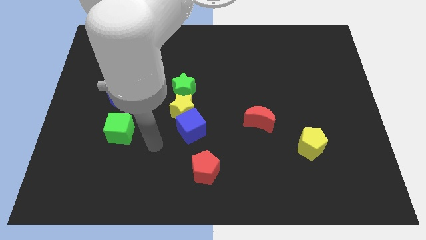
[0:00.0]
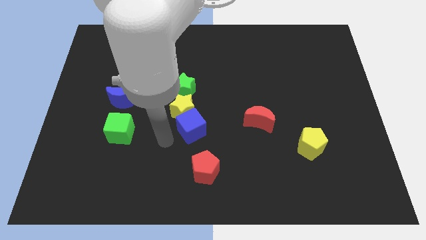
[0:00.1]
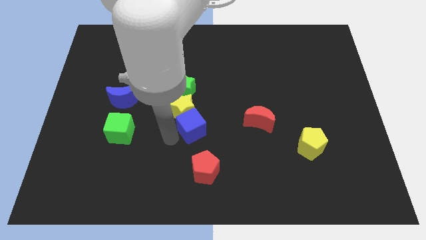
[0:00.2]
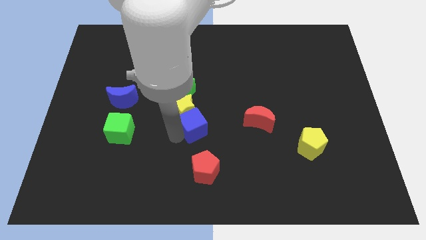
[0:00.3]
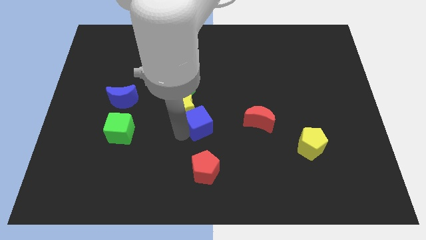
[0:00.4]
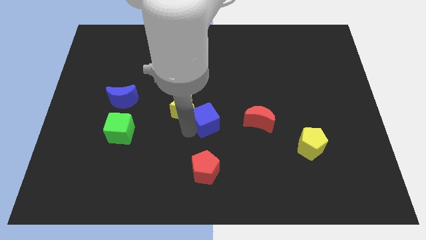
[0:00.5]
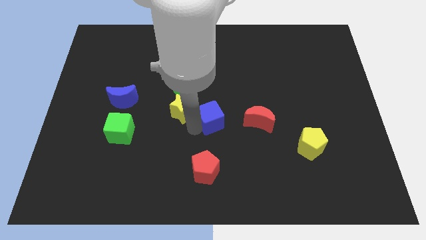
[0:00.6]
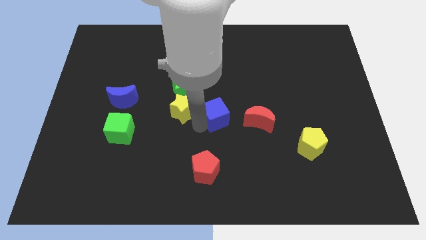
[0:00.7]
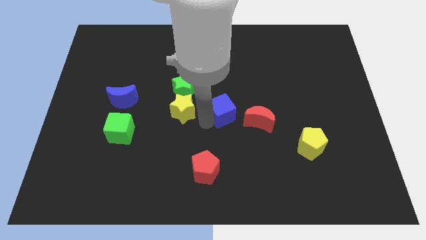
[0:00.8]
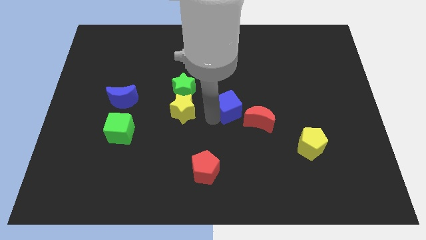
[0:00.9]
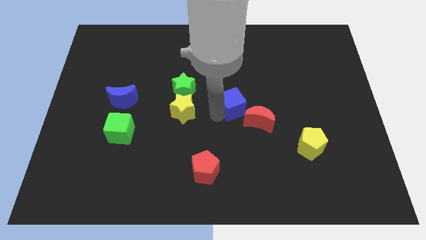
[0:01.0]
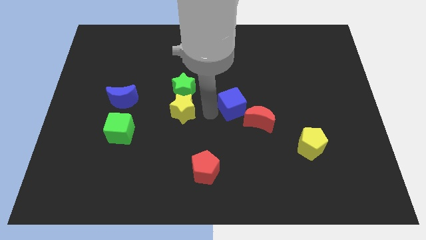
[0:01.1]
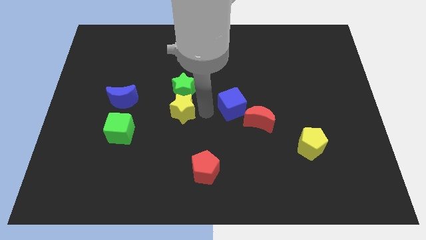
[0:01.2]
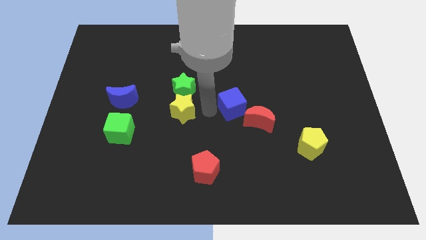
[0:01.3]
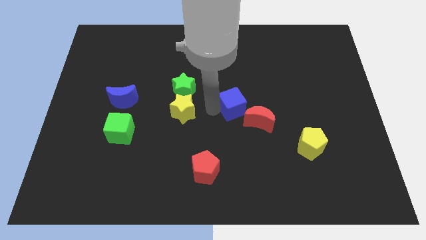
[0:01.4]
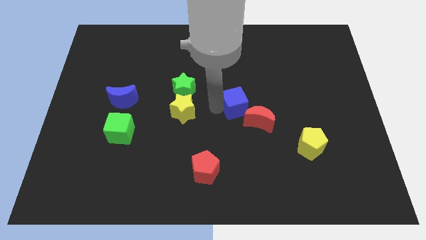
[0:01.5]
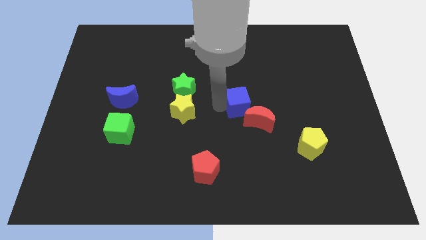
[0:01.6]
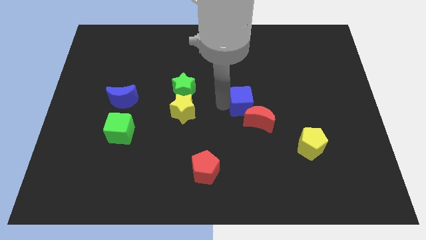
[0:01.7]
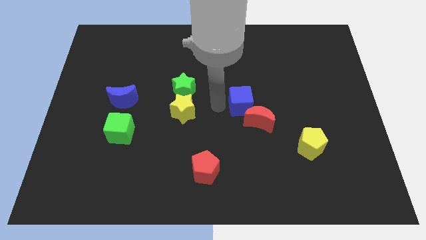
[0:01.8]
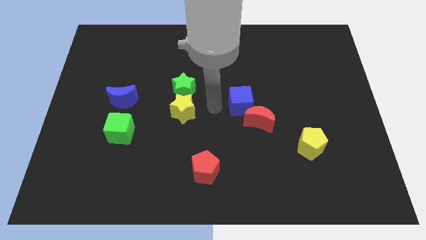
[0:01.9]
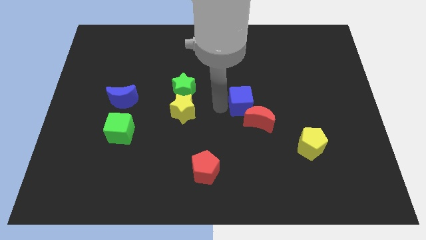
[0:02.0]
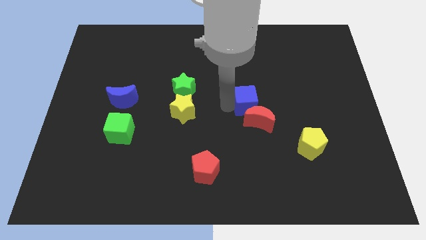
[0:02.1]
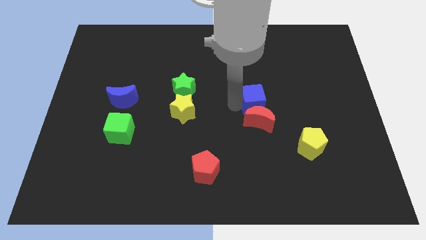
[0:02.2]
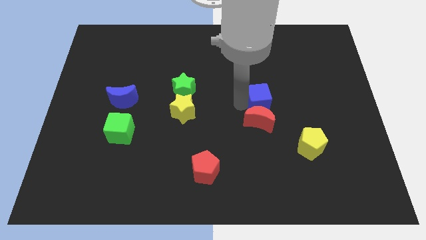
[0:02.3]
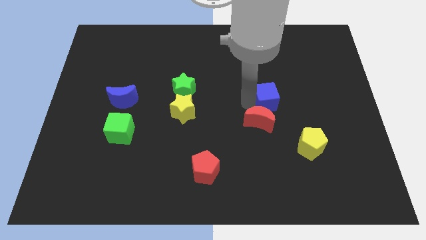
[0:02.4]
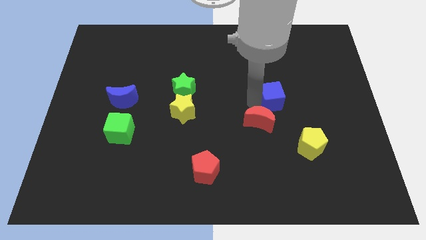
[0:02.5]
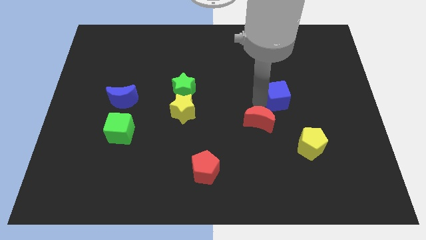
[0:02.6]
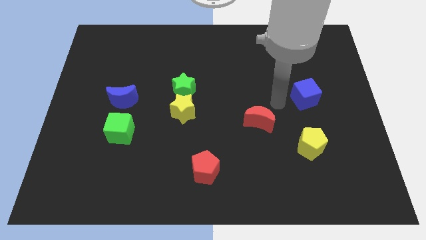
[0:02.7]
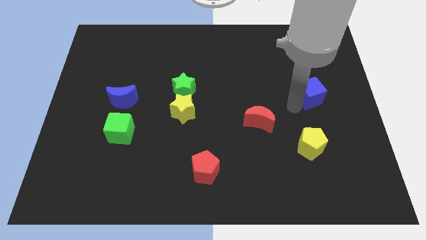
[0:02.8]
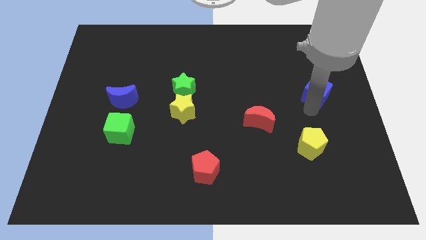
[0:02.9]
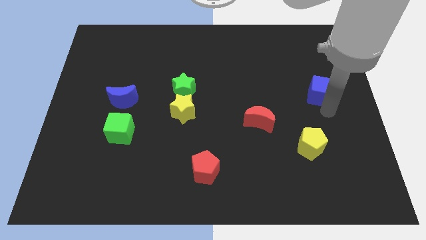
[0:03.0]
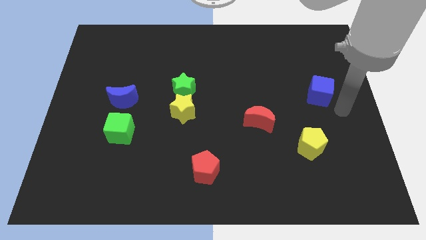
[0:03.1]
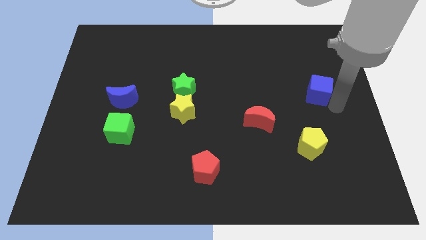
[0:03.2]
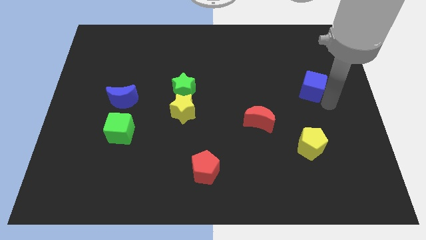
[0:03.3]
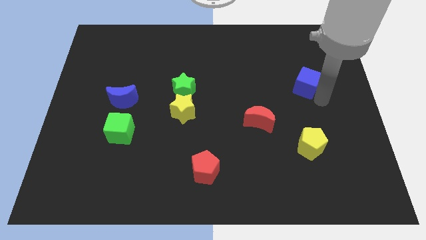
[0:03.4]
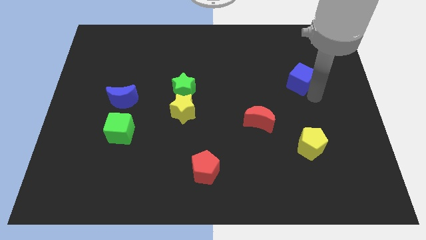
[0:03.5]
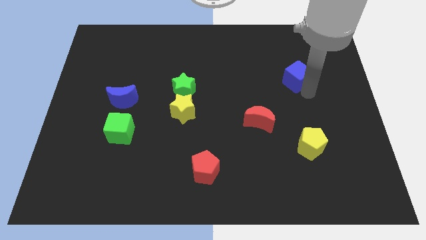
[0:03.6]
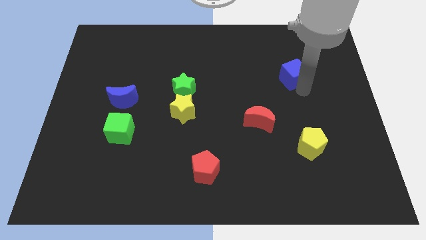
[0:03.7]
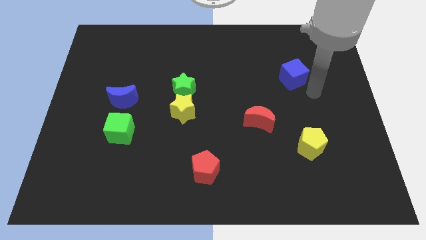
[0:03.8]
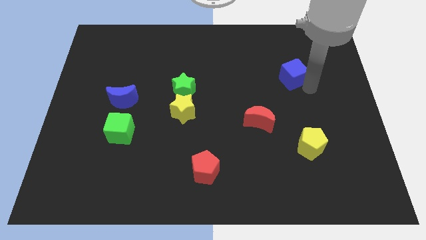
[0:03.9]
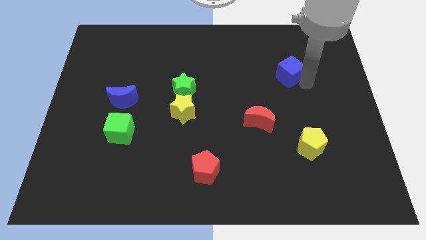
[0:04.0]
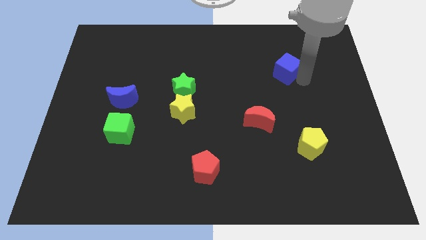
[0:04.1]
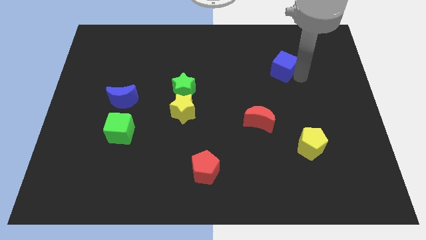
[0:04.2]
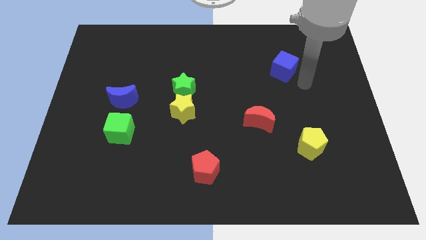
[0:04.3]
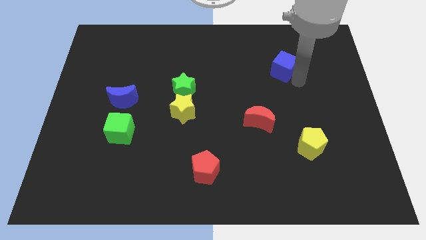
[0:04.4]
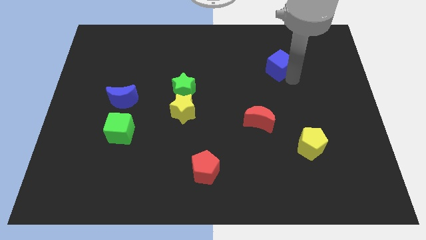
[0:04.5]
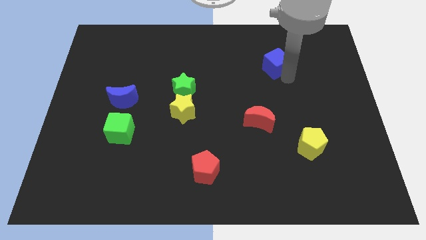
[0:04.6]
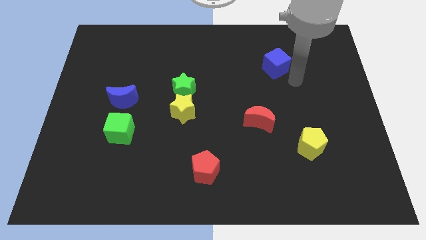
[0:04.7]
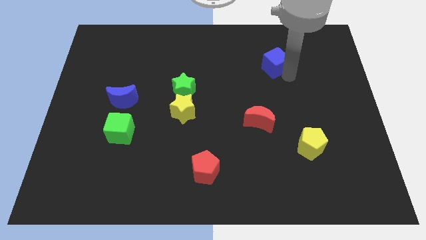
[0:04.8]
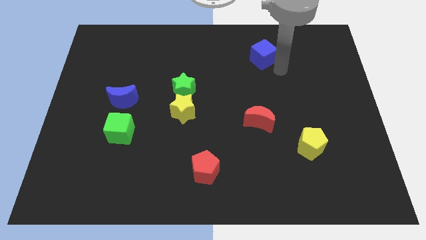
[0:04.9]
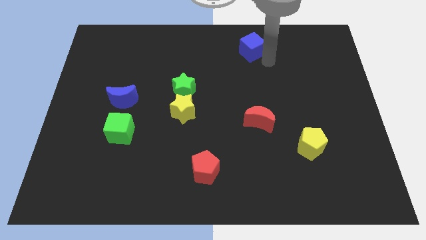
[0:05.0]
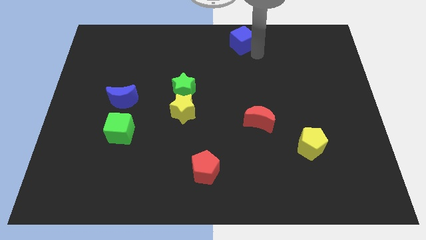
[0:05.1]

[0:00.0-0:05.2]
push the blue cube to the top side

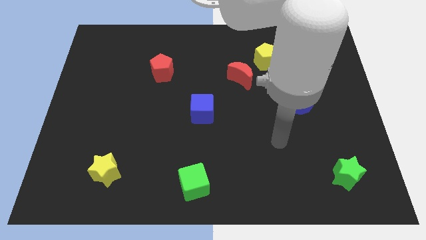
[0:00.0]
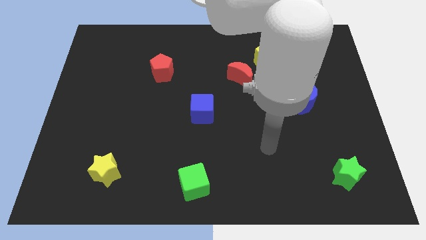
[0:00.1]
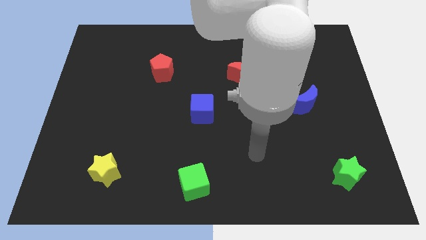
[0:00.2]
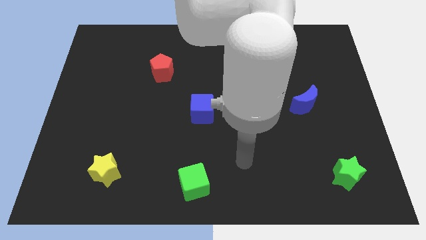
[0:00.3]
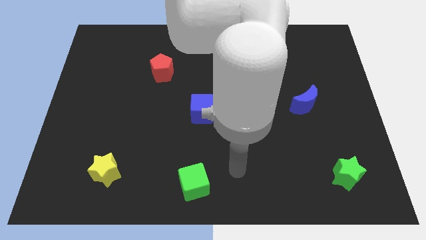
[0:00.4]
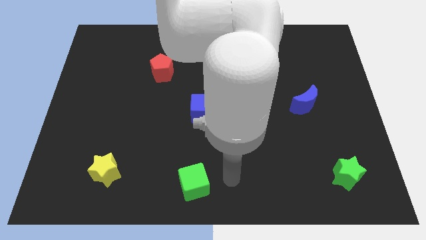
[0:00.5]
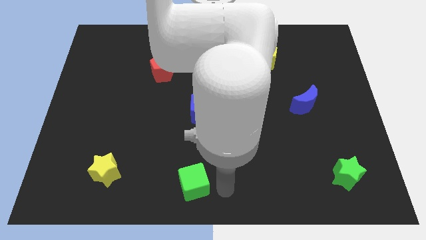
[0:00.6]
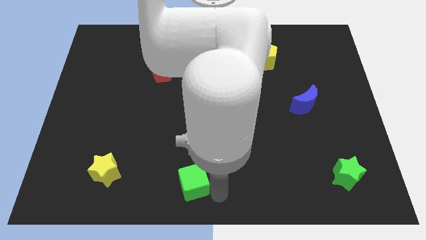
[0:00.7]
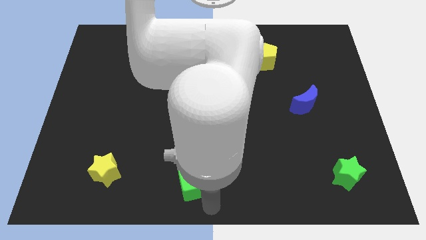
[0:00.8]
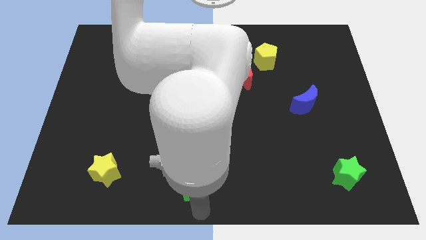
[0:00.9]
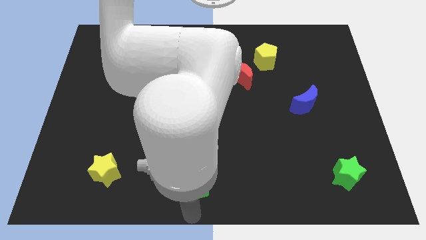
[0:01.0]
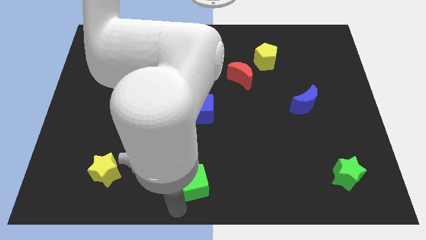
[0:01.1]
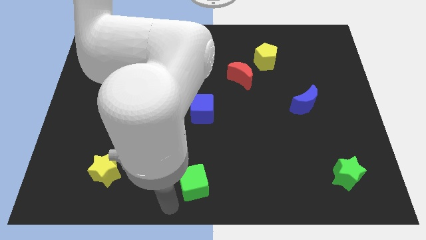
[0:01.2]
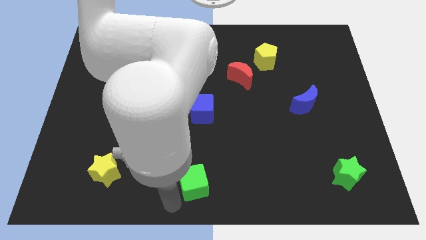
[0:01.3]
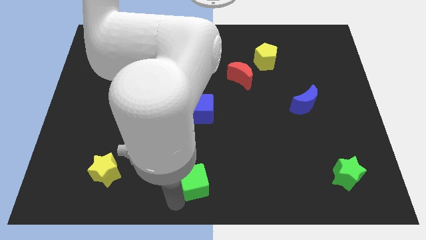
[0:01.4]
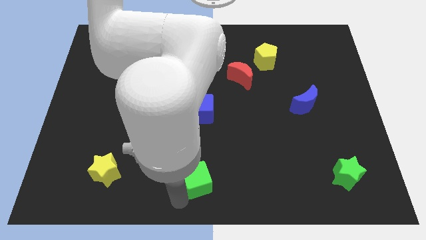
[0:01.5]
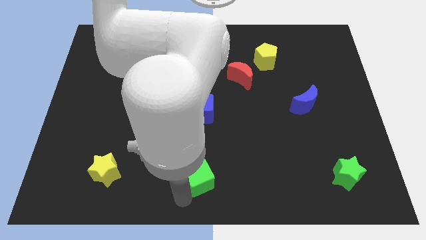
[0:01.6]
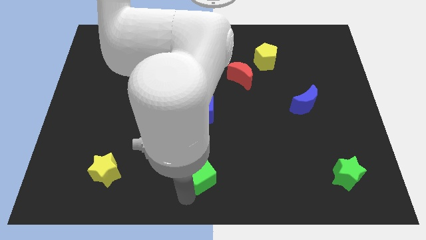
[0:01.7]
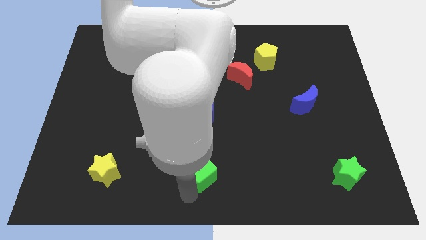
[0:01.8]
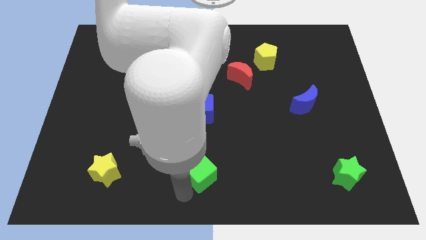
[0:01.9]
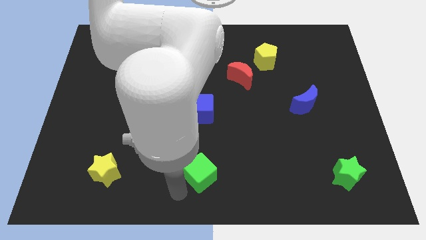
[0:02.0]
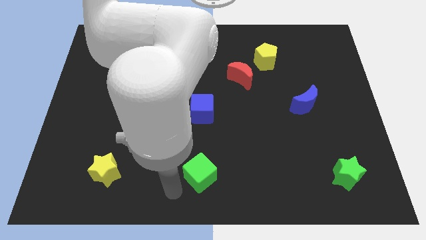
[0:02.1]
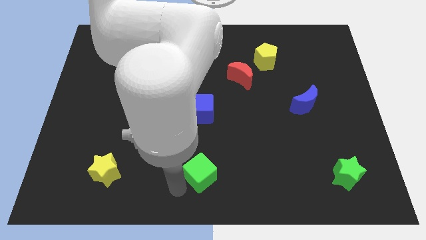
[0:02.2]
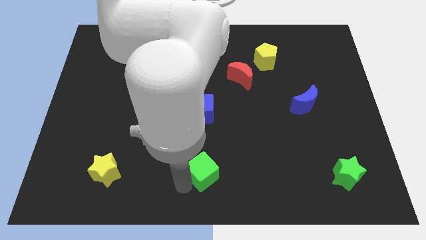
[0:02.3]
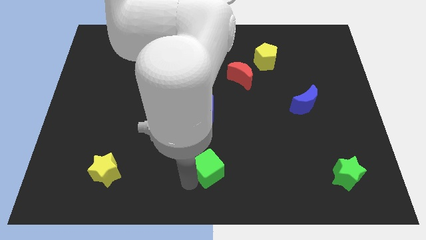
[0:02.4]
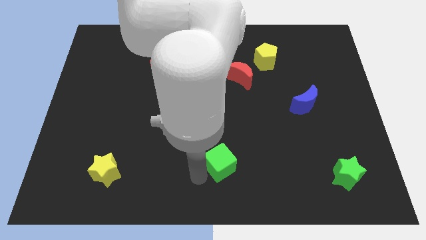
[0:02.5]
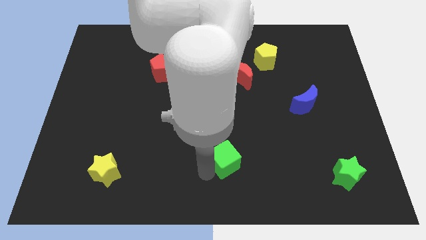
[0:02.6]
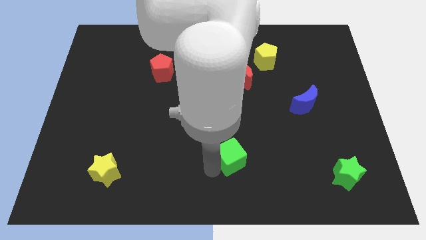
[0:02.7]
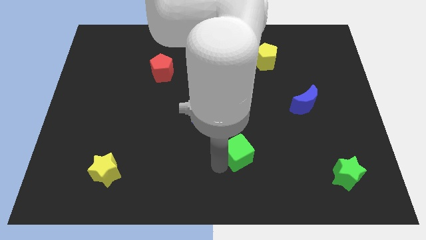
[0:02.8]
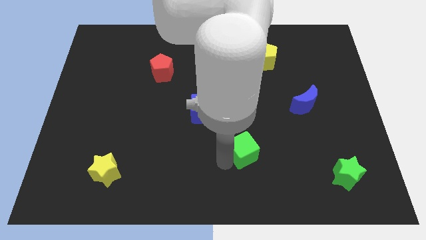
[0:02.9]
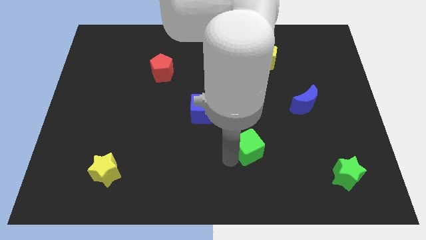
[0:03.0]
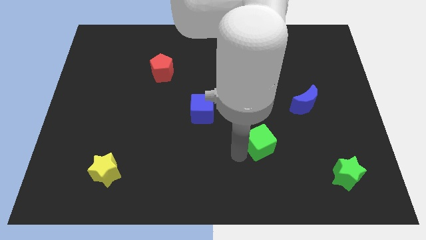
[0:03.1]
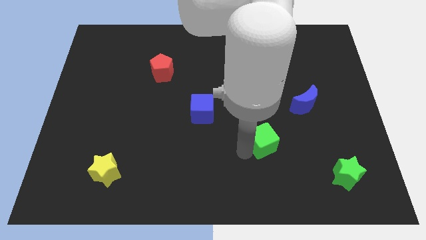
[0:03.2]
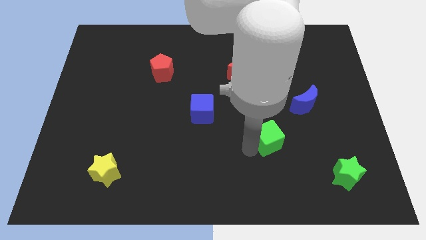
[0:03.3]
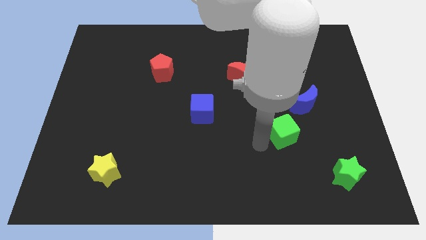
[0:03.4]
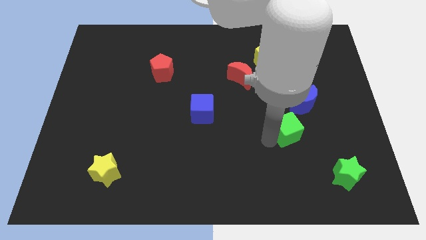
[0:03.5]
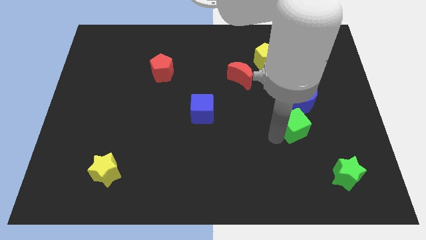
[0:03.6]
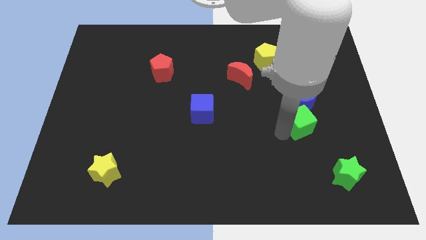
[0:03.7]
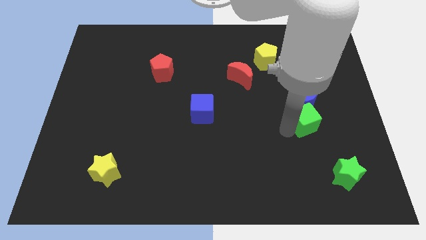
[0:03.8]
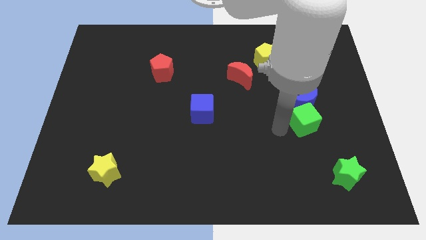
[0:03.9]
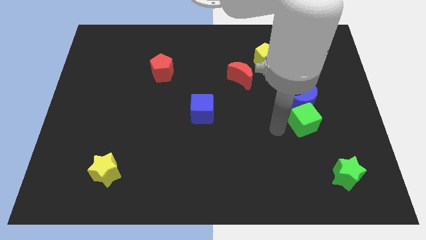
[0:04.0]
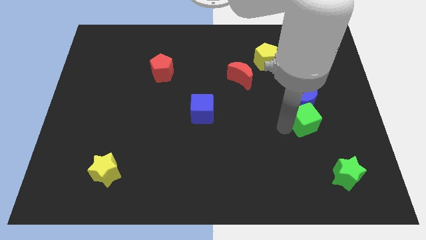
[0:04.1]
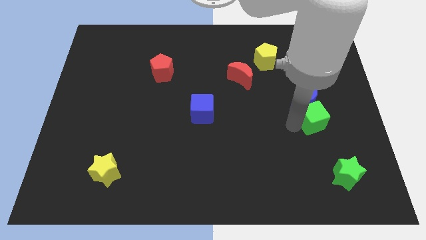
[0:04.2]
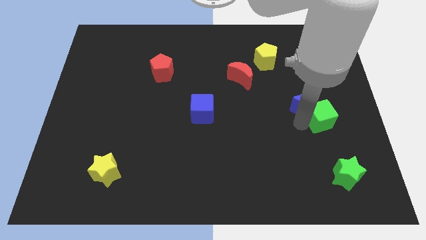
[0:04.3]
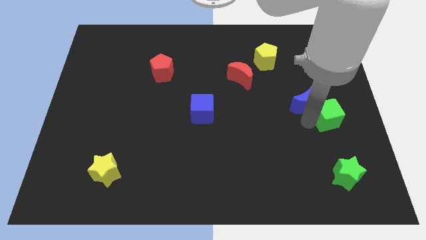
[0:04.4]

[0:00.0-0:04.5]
slide the green cube to the center right
